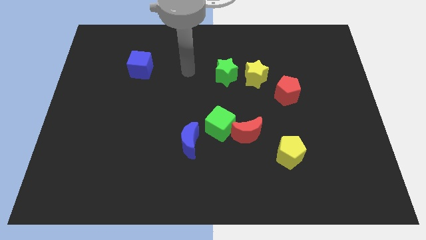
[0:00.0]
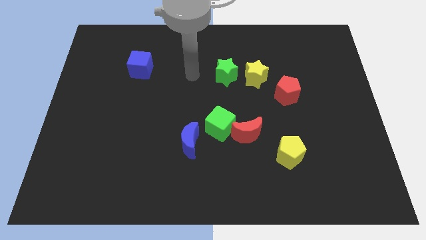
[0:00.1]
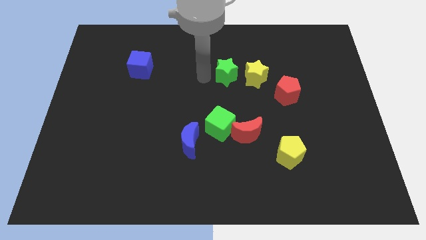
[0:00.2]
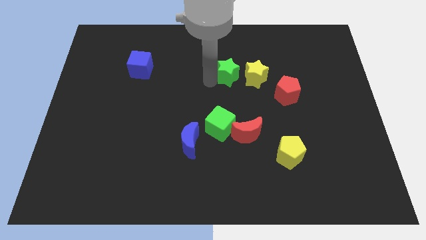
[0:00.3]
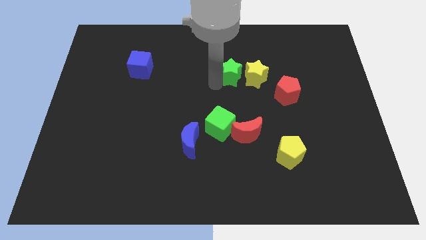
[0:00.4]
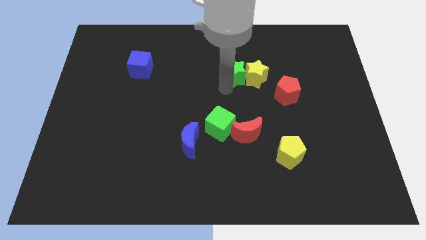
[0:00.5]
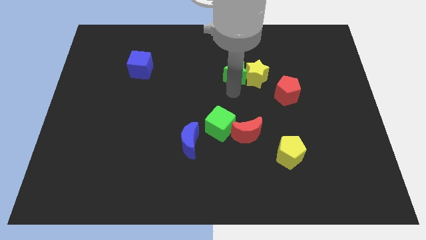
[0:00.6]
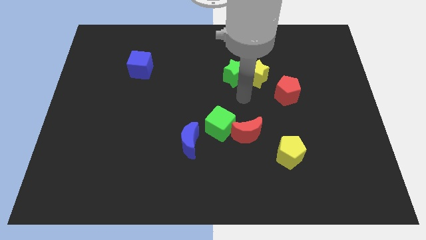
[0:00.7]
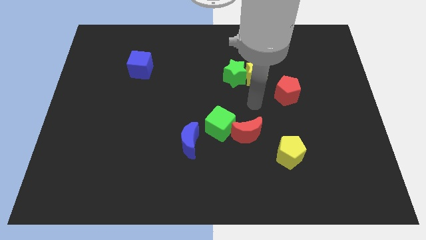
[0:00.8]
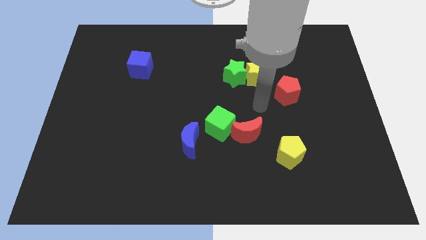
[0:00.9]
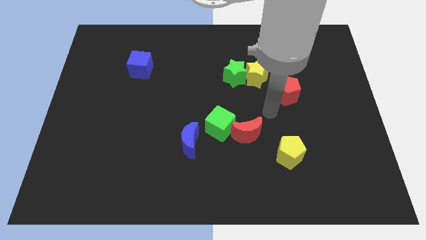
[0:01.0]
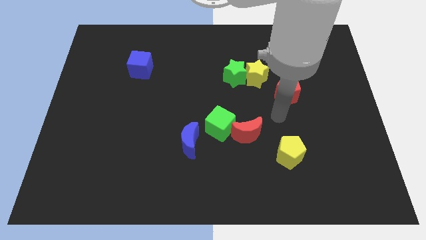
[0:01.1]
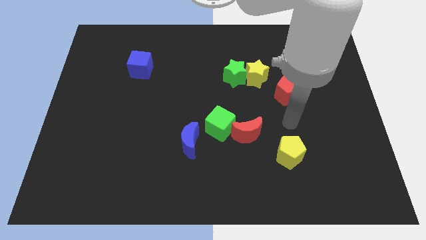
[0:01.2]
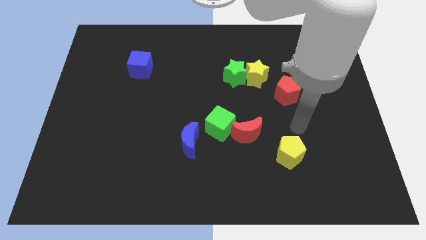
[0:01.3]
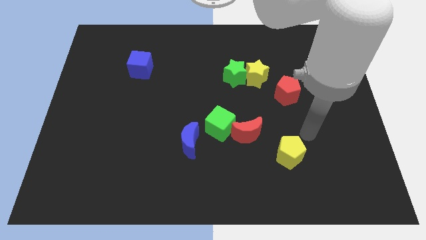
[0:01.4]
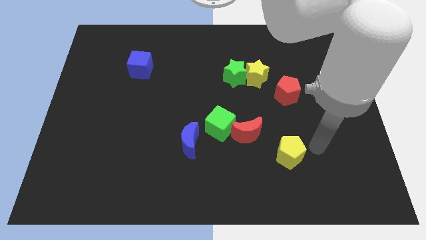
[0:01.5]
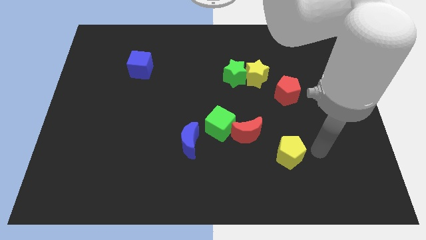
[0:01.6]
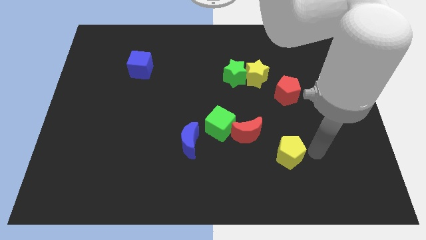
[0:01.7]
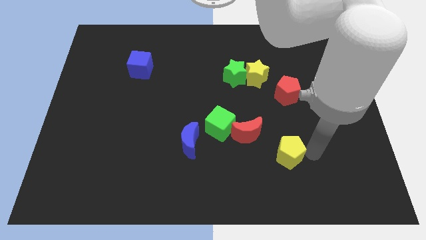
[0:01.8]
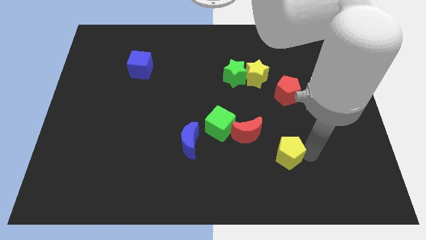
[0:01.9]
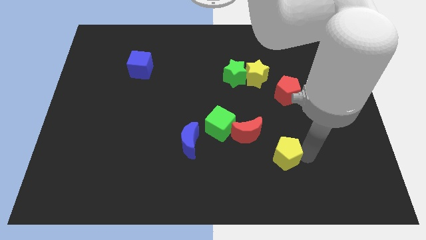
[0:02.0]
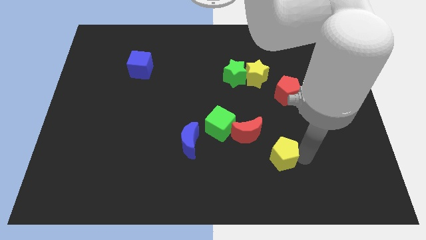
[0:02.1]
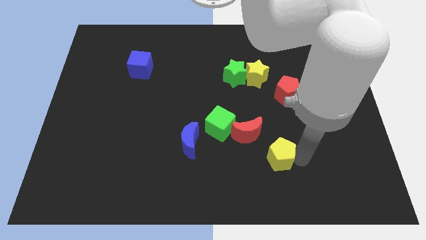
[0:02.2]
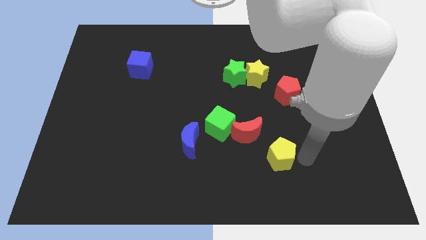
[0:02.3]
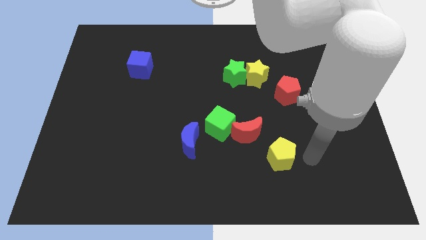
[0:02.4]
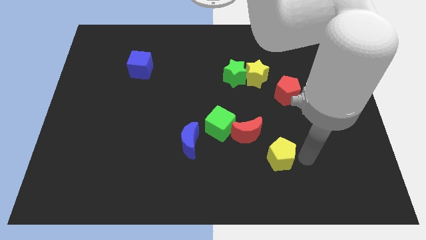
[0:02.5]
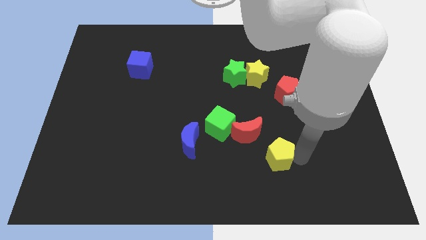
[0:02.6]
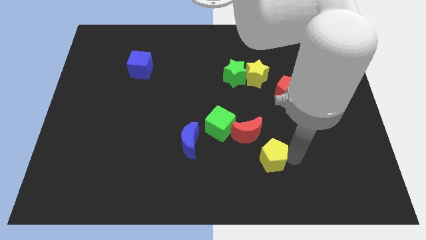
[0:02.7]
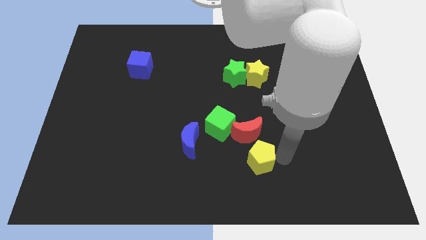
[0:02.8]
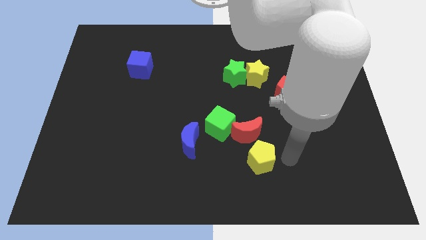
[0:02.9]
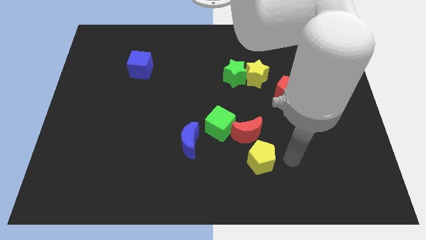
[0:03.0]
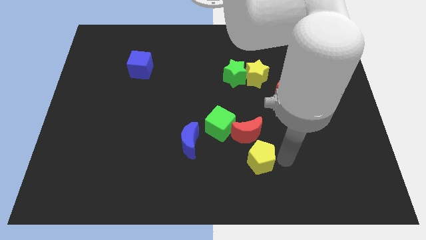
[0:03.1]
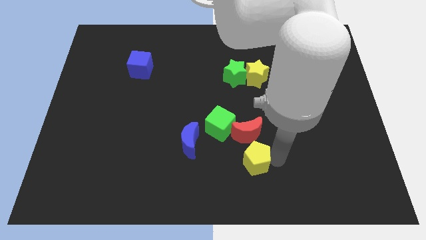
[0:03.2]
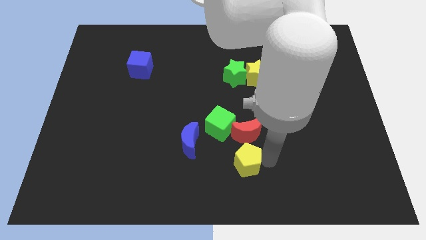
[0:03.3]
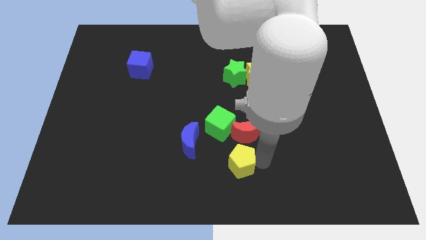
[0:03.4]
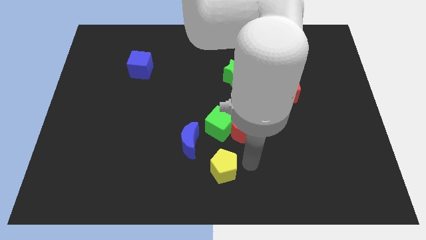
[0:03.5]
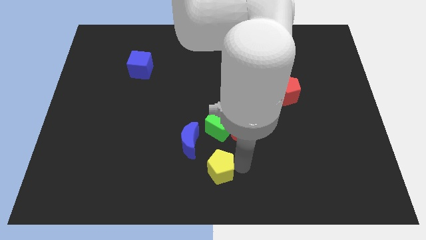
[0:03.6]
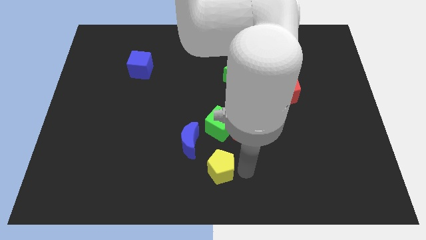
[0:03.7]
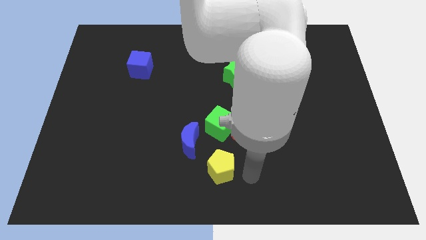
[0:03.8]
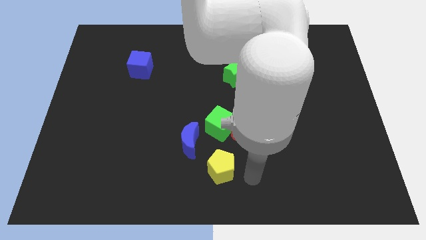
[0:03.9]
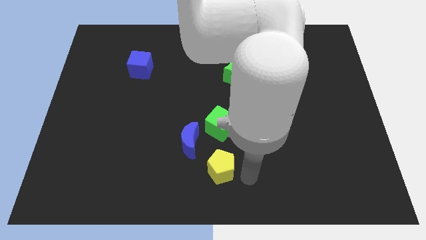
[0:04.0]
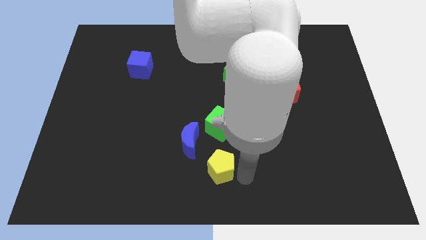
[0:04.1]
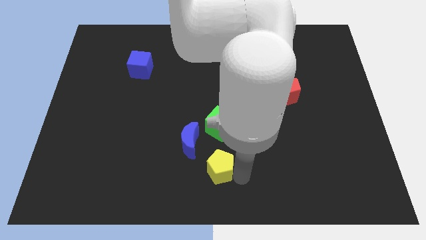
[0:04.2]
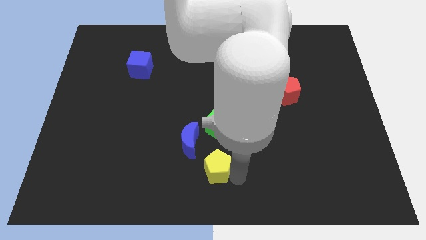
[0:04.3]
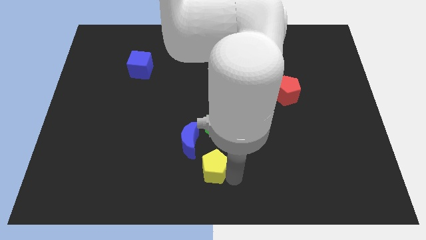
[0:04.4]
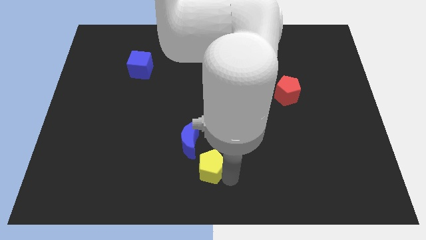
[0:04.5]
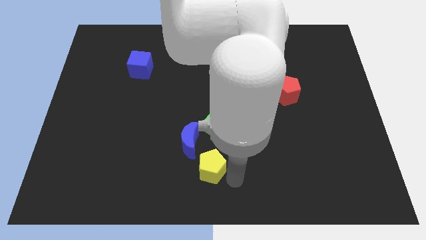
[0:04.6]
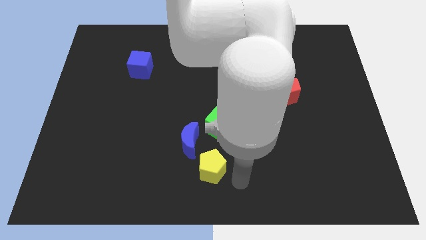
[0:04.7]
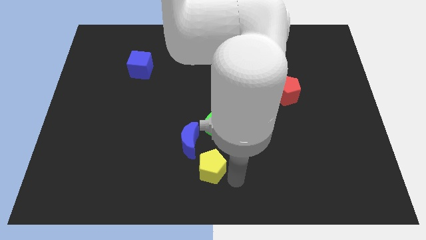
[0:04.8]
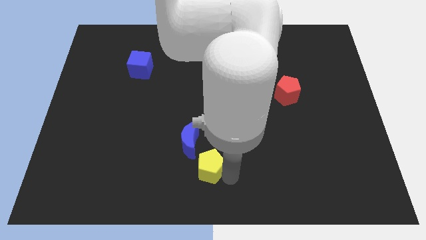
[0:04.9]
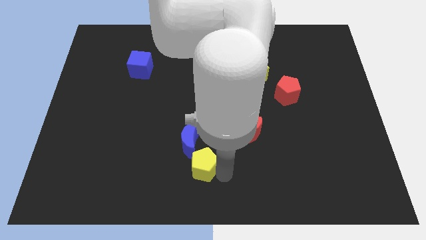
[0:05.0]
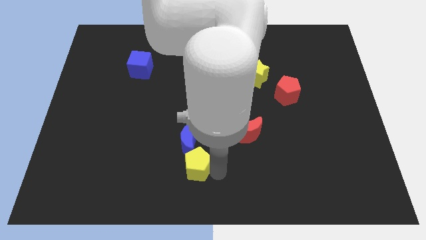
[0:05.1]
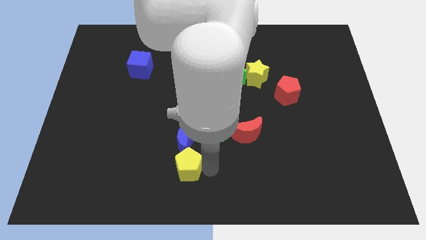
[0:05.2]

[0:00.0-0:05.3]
push the yellow pentagon left

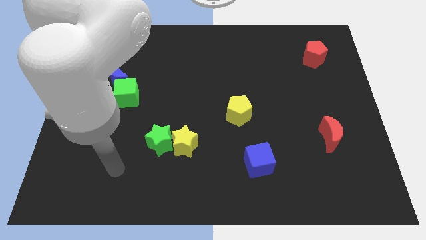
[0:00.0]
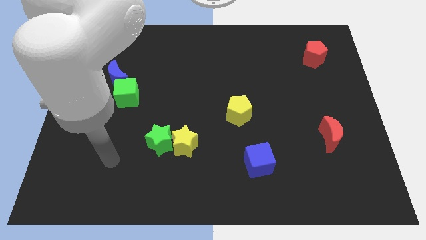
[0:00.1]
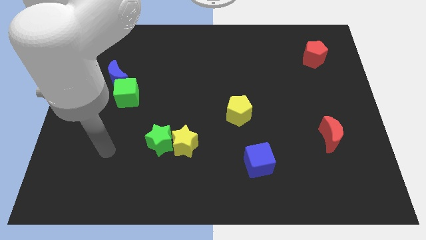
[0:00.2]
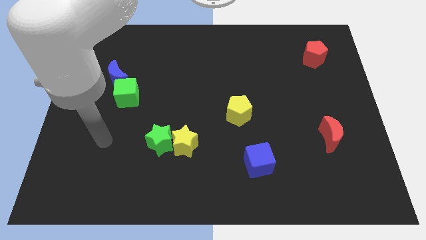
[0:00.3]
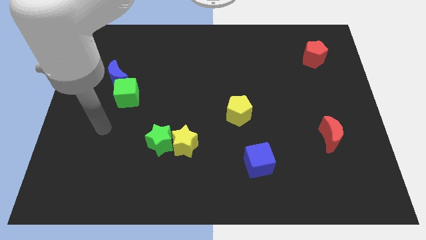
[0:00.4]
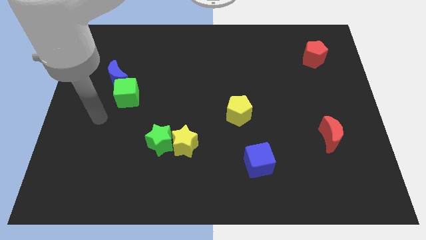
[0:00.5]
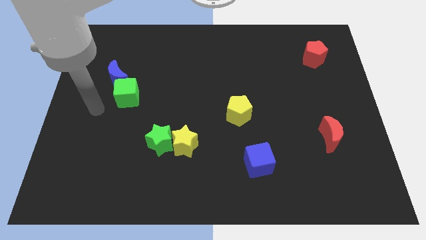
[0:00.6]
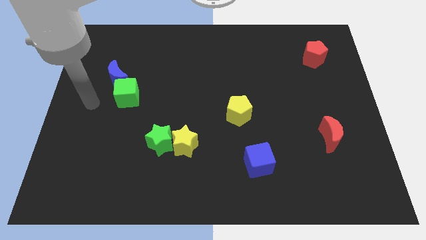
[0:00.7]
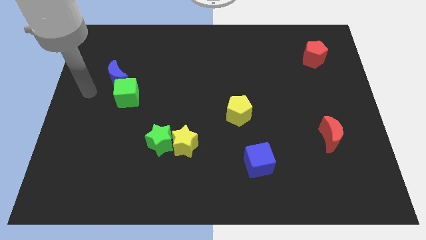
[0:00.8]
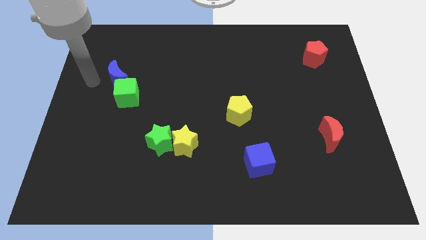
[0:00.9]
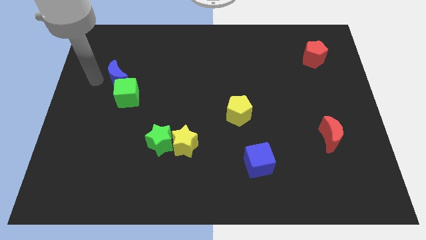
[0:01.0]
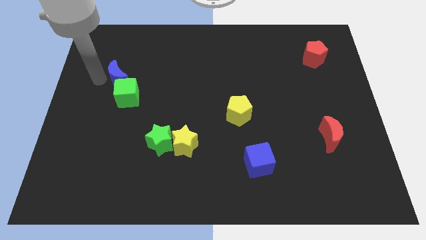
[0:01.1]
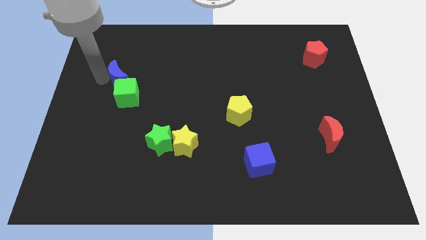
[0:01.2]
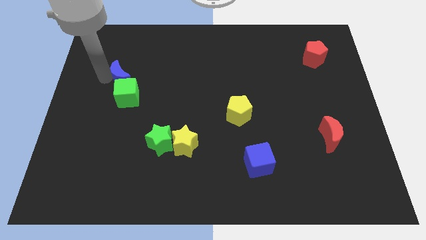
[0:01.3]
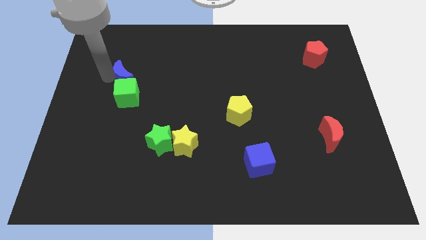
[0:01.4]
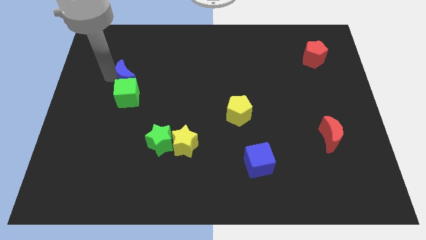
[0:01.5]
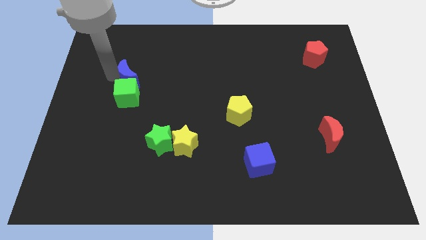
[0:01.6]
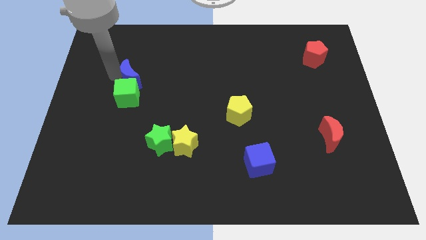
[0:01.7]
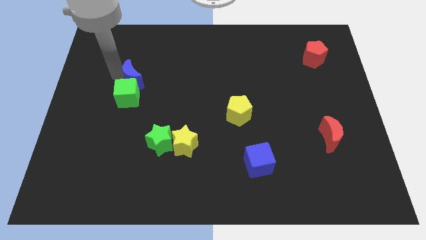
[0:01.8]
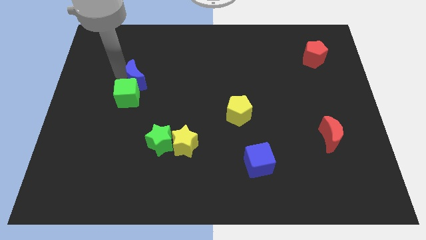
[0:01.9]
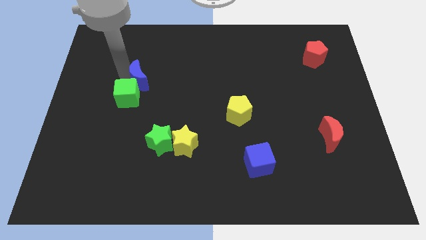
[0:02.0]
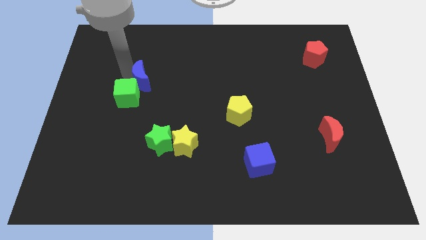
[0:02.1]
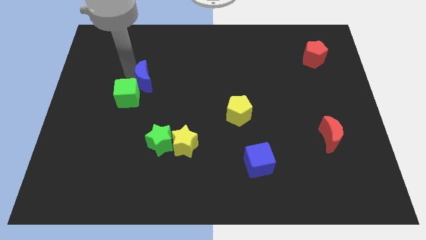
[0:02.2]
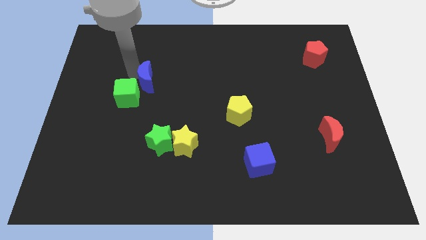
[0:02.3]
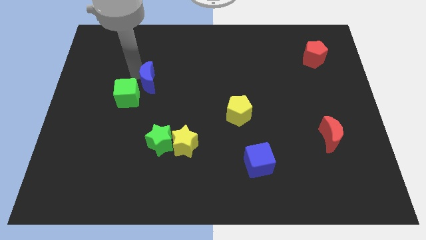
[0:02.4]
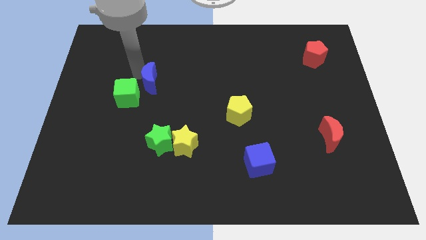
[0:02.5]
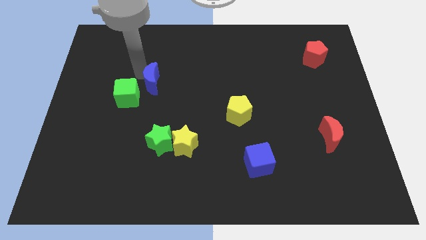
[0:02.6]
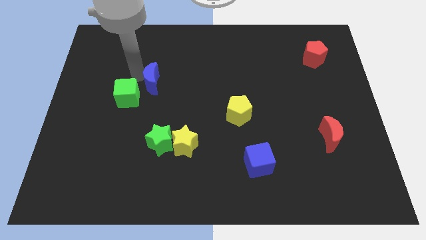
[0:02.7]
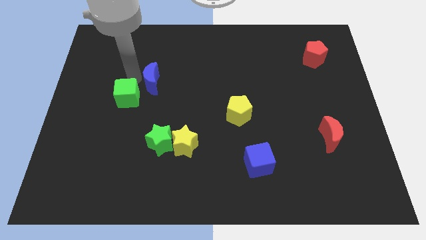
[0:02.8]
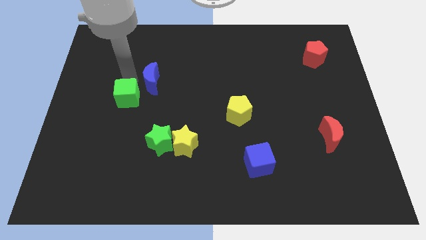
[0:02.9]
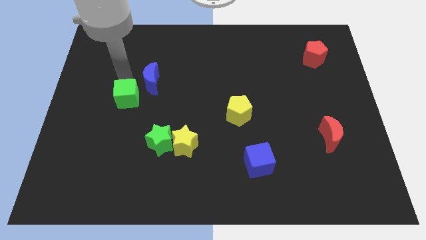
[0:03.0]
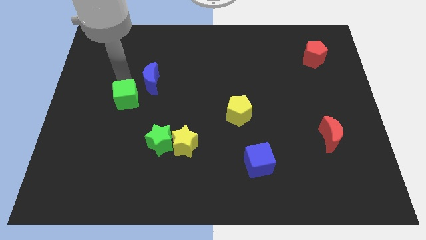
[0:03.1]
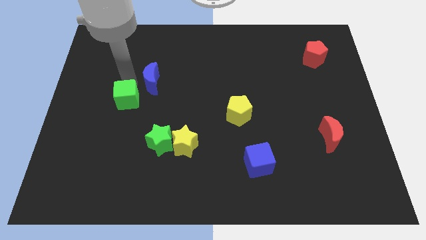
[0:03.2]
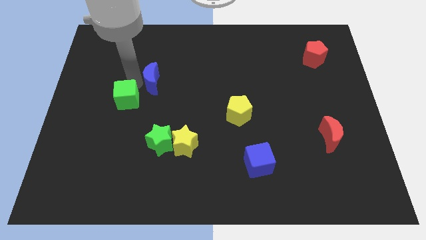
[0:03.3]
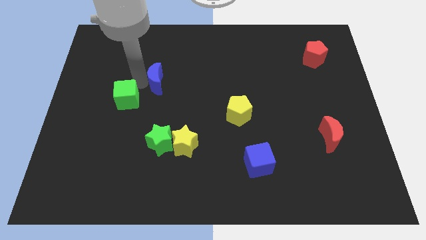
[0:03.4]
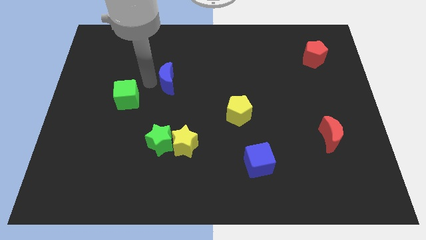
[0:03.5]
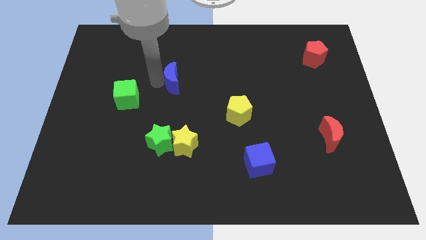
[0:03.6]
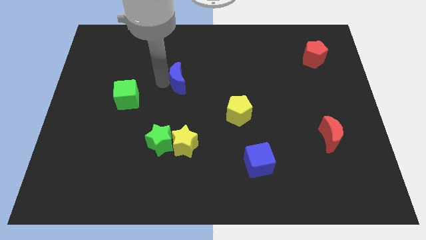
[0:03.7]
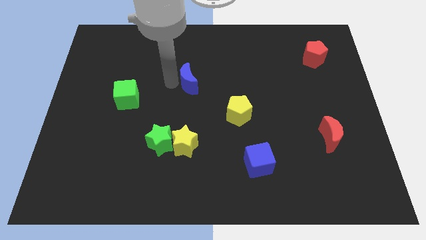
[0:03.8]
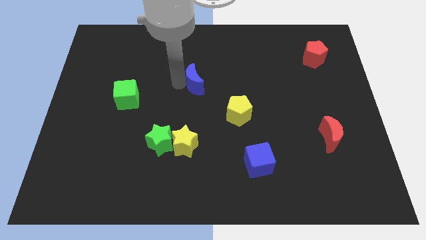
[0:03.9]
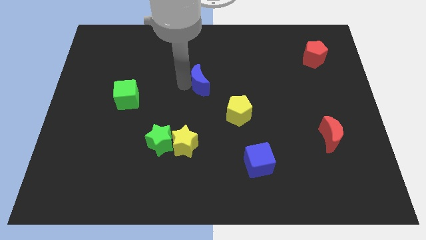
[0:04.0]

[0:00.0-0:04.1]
push the blue moon to the right
